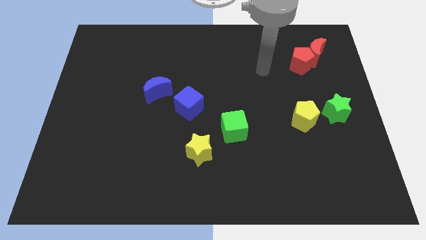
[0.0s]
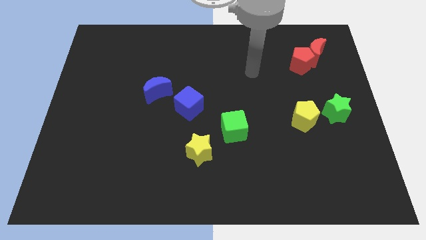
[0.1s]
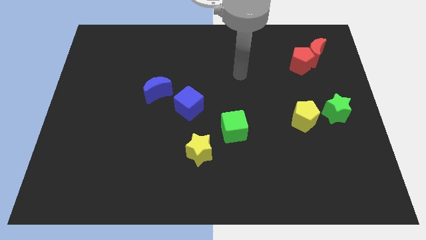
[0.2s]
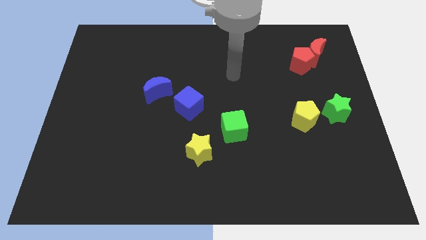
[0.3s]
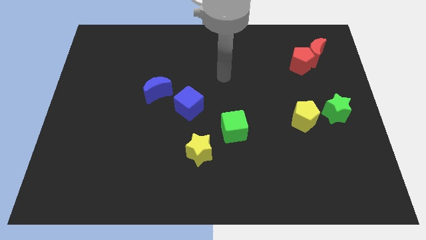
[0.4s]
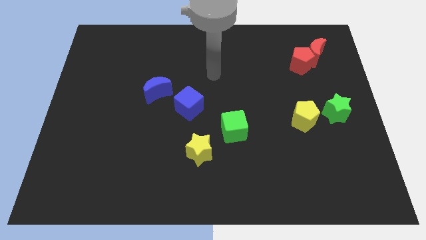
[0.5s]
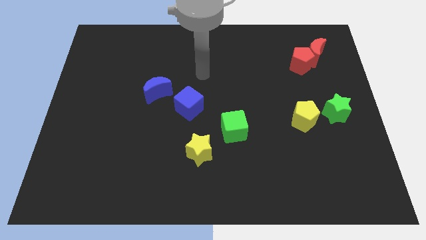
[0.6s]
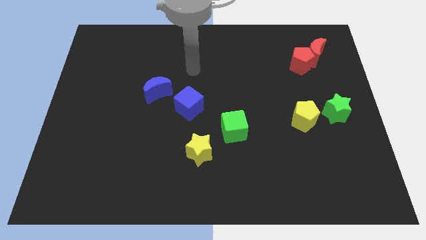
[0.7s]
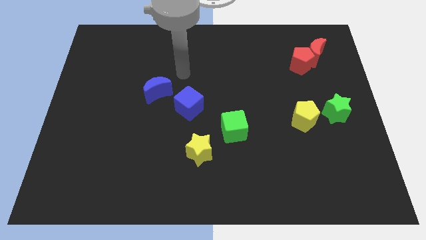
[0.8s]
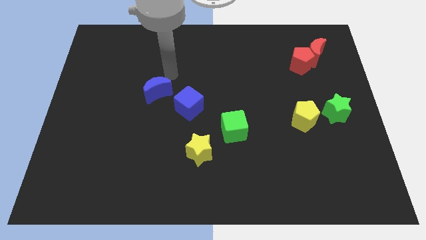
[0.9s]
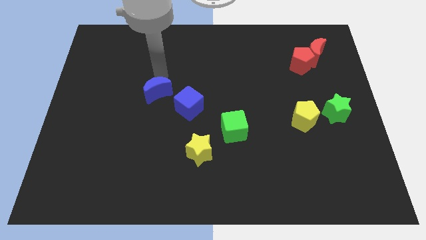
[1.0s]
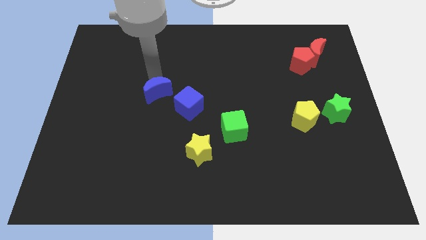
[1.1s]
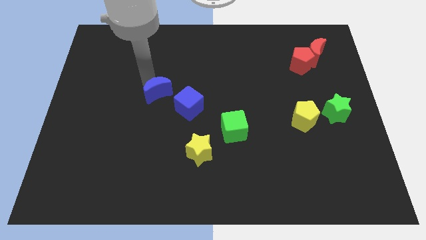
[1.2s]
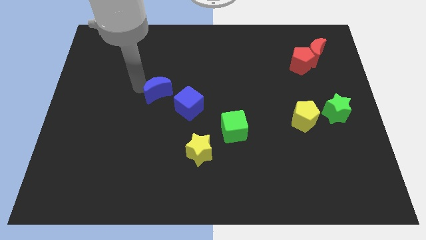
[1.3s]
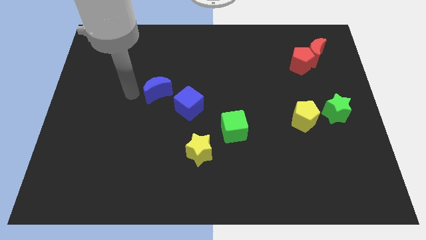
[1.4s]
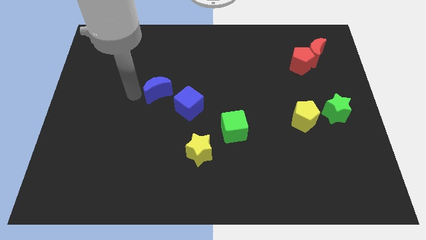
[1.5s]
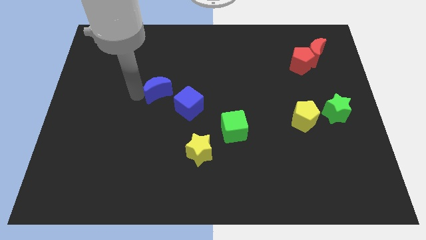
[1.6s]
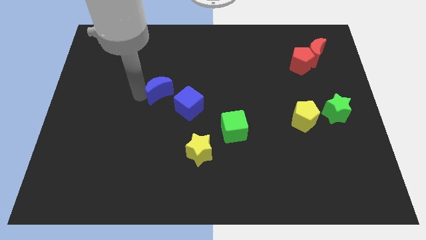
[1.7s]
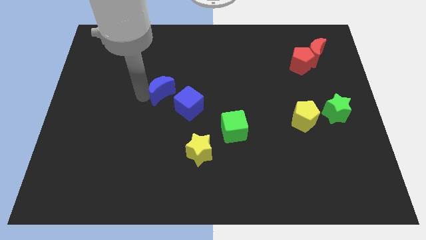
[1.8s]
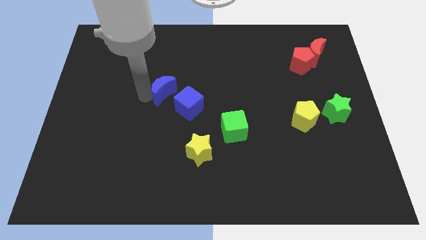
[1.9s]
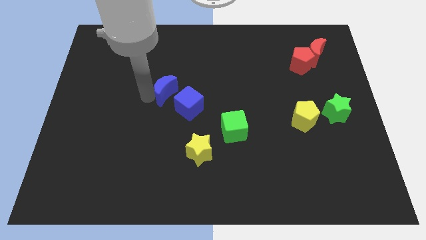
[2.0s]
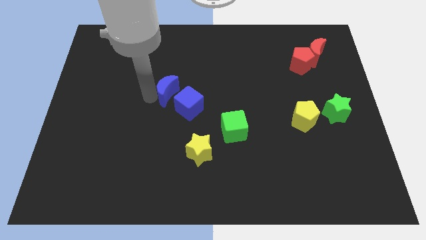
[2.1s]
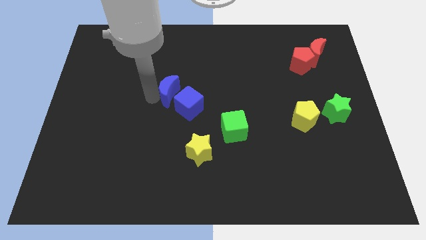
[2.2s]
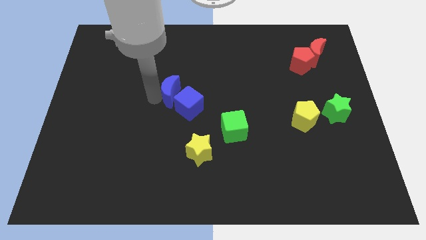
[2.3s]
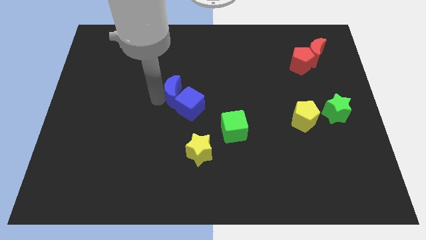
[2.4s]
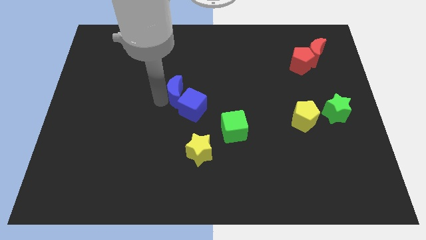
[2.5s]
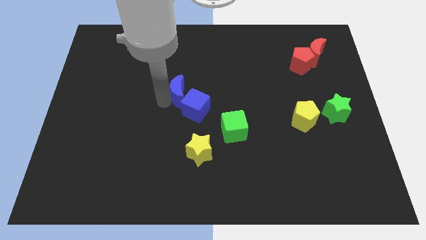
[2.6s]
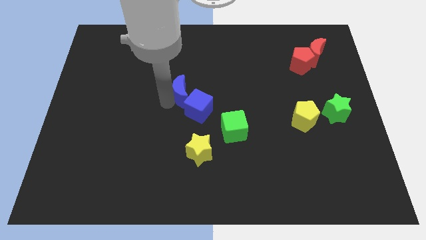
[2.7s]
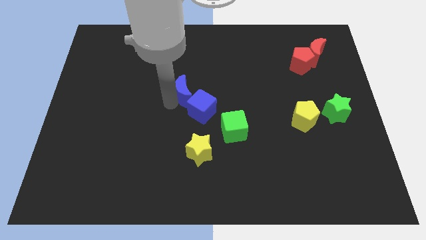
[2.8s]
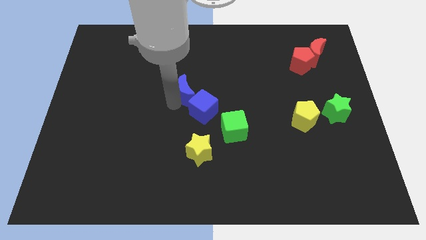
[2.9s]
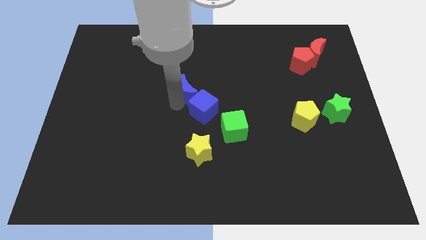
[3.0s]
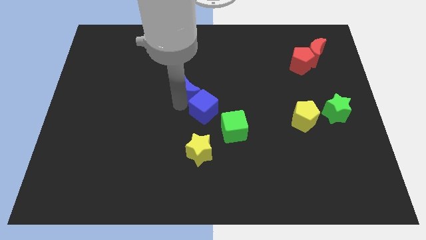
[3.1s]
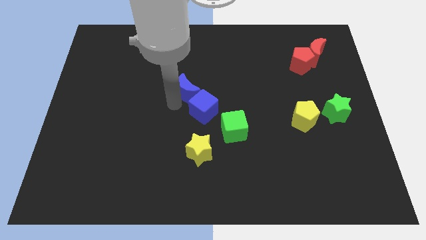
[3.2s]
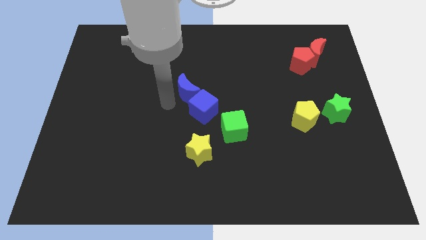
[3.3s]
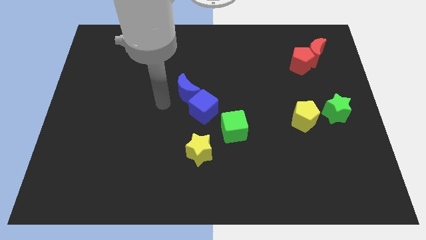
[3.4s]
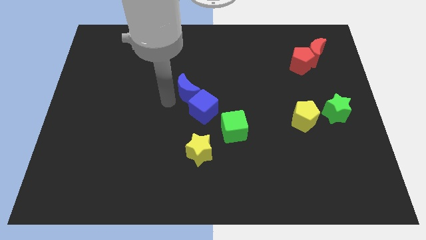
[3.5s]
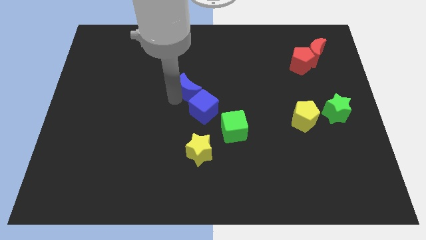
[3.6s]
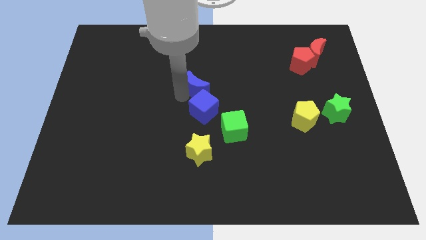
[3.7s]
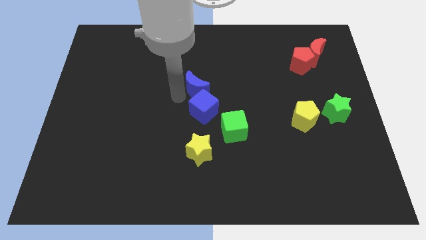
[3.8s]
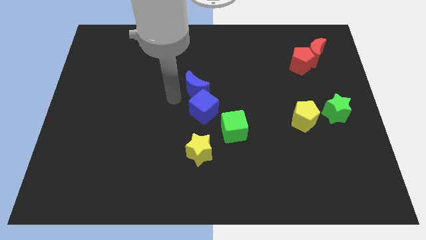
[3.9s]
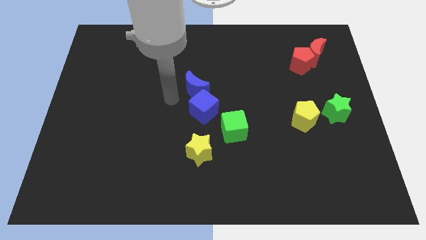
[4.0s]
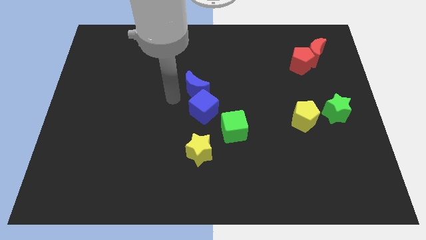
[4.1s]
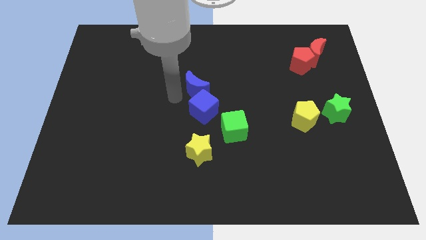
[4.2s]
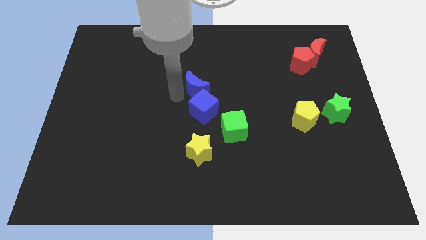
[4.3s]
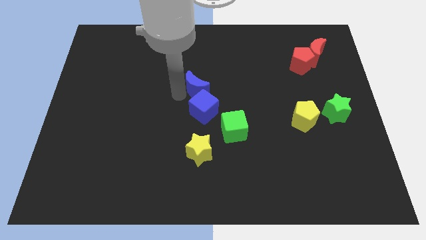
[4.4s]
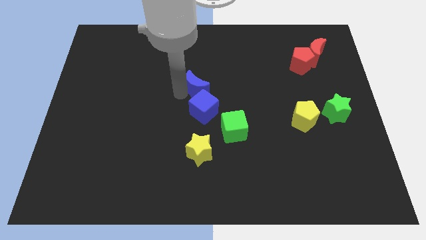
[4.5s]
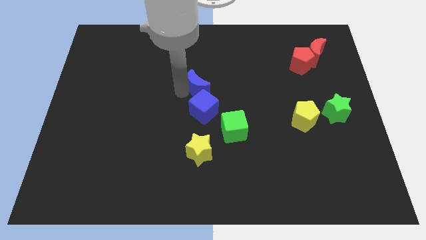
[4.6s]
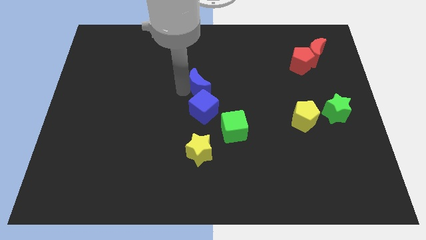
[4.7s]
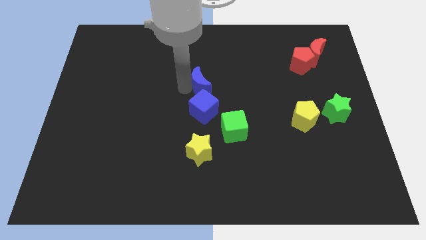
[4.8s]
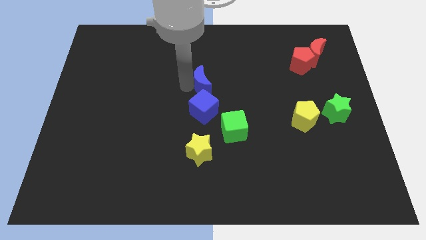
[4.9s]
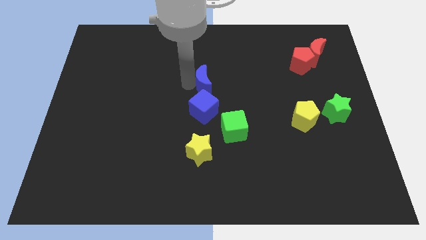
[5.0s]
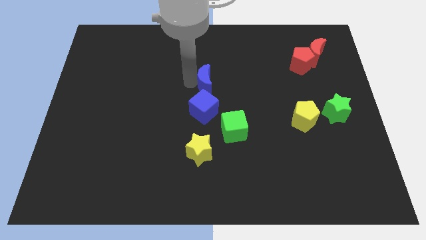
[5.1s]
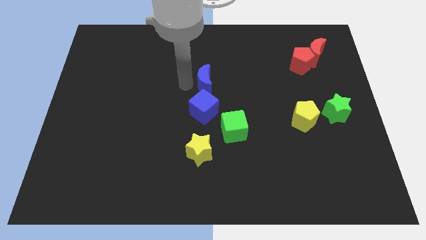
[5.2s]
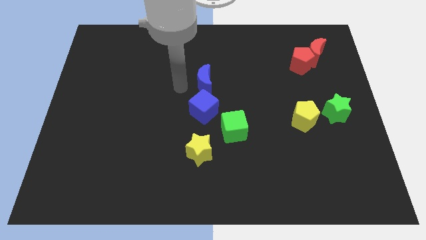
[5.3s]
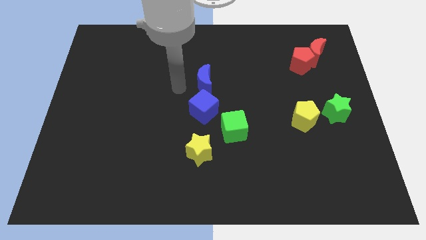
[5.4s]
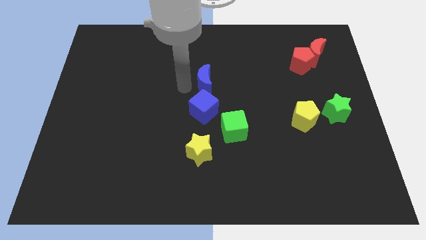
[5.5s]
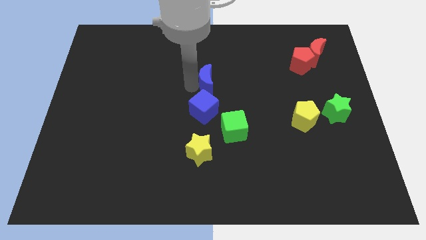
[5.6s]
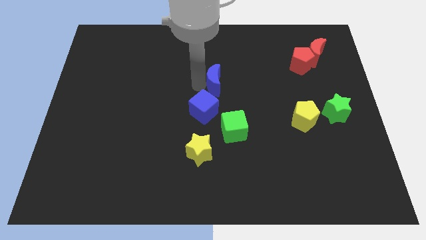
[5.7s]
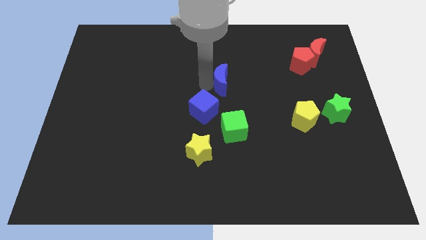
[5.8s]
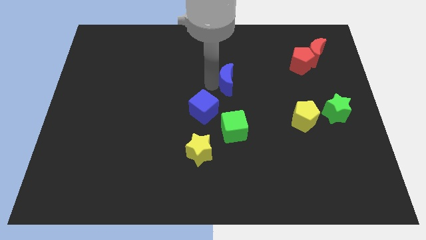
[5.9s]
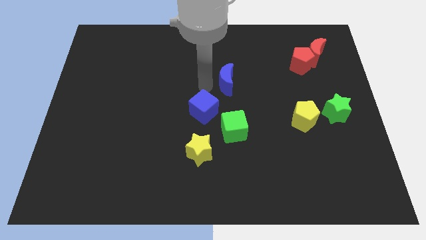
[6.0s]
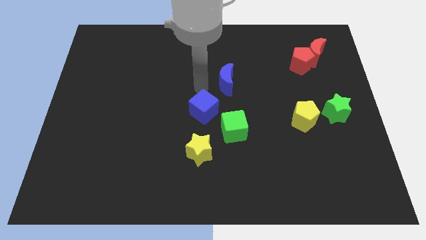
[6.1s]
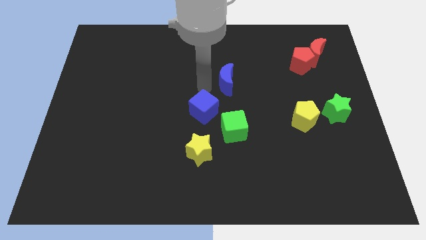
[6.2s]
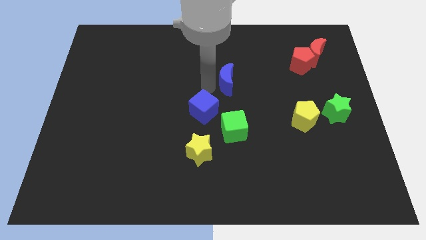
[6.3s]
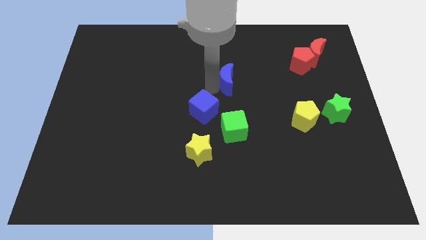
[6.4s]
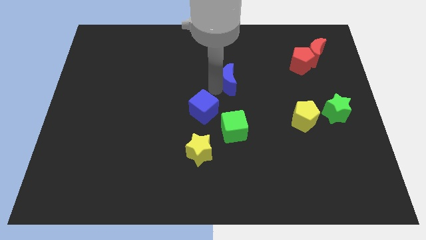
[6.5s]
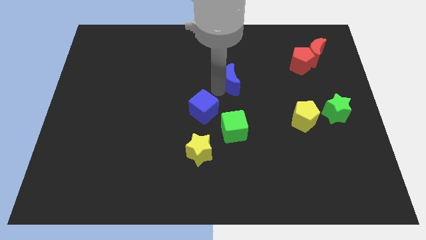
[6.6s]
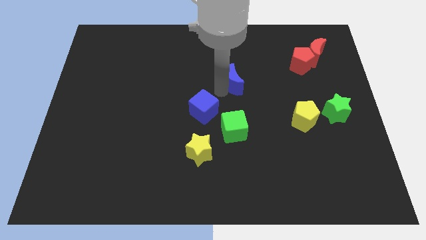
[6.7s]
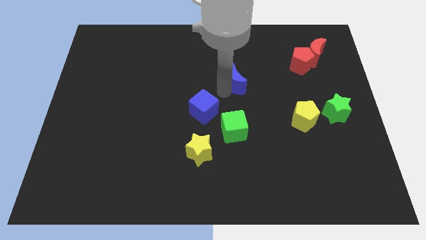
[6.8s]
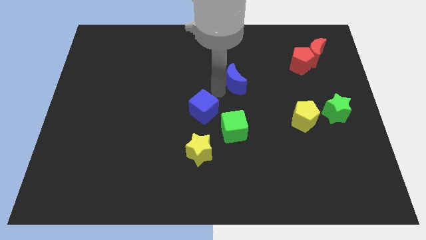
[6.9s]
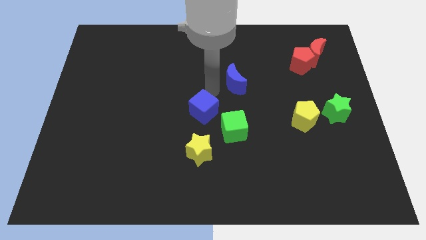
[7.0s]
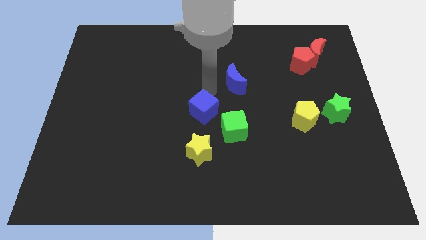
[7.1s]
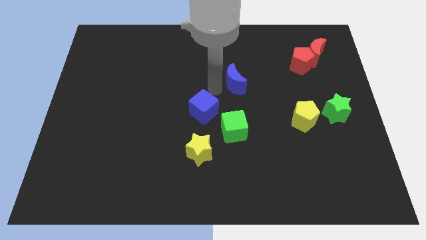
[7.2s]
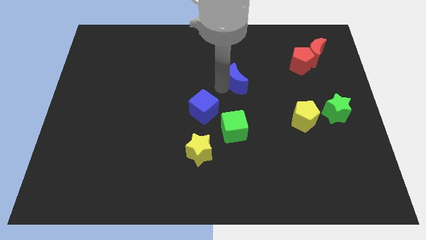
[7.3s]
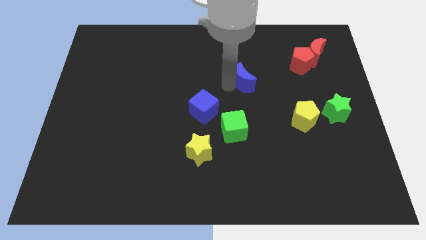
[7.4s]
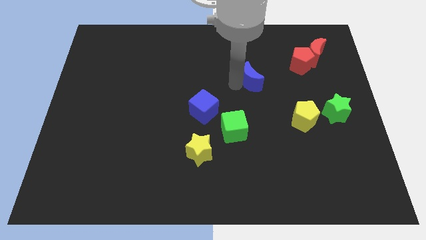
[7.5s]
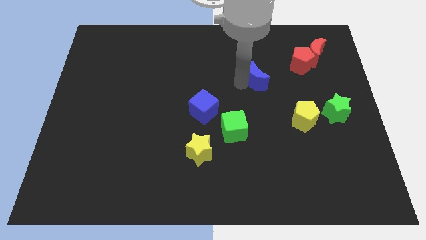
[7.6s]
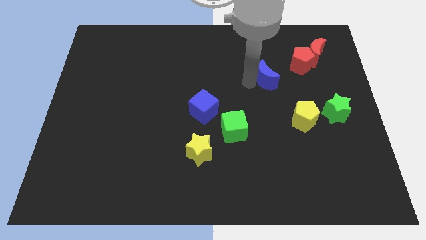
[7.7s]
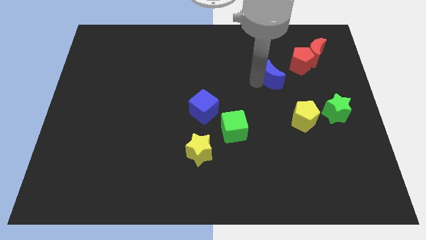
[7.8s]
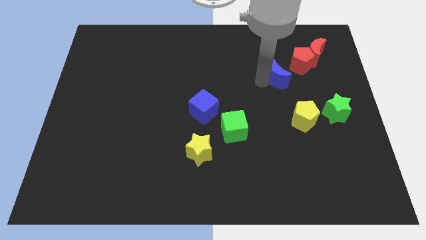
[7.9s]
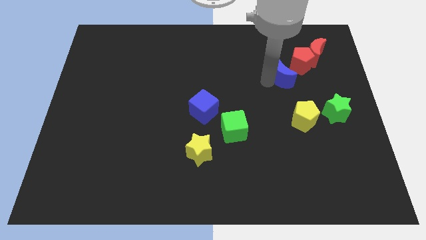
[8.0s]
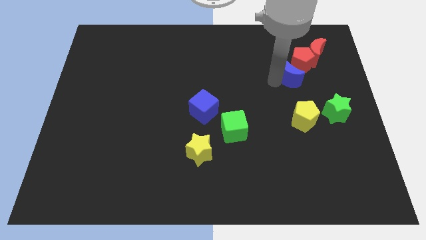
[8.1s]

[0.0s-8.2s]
move the blue moon next to the red pentagon
